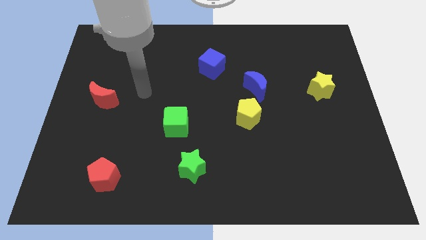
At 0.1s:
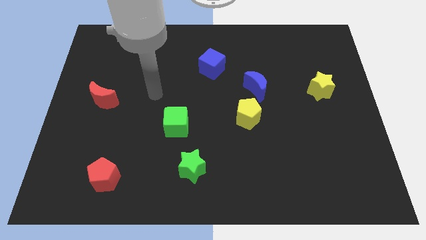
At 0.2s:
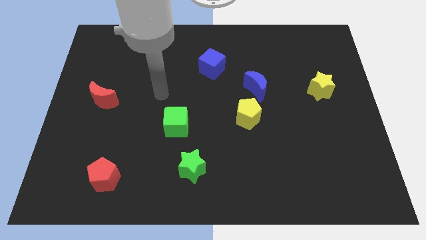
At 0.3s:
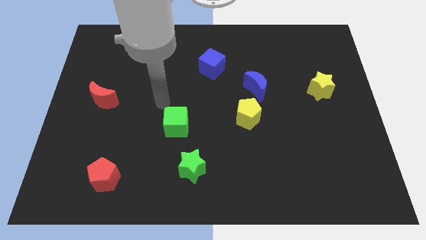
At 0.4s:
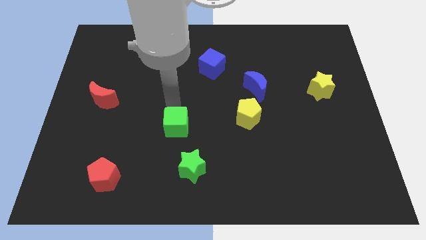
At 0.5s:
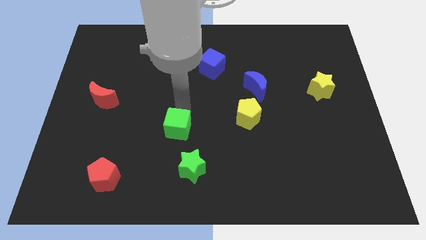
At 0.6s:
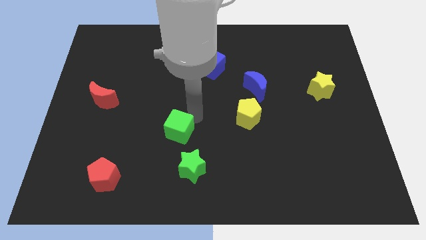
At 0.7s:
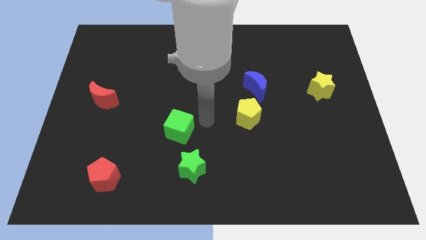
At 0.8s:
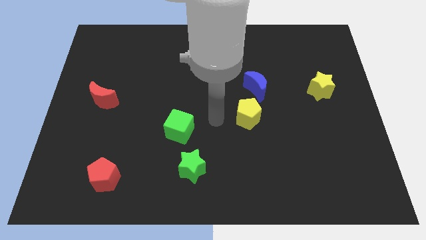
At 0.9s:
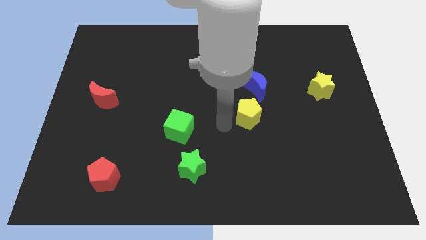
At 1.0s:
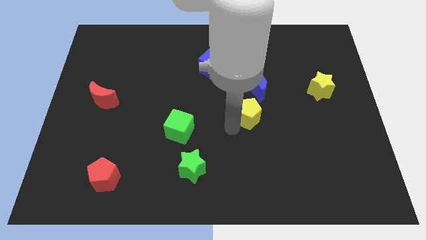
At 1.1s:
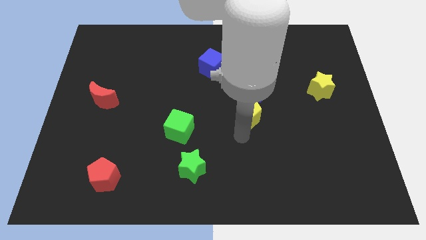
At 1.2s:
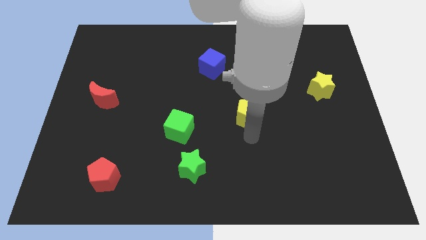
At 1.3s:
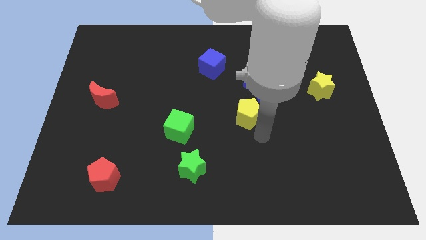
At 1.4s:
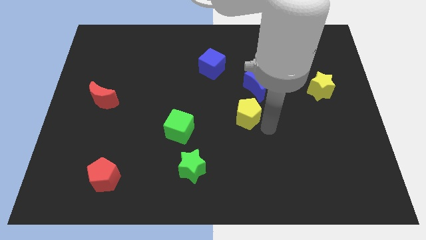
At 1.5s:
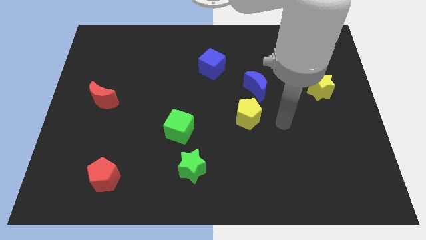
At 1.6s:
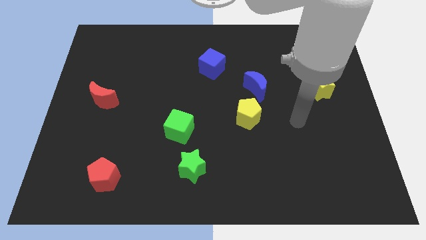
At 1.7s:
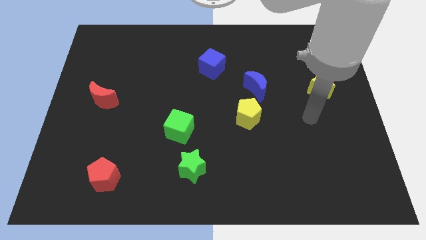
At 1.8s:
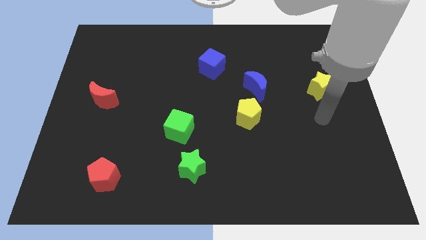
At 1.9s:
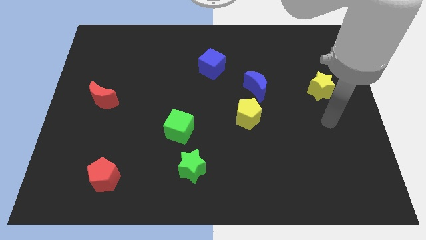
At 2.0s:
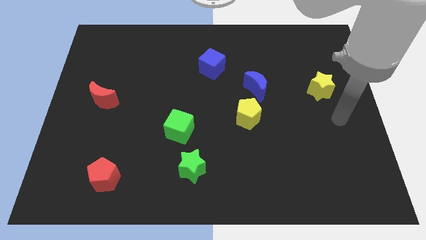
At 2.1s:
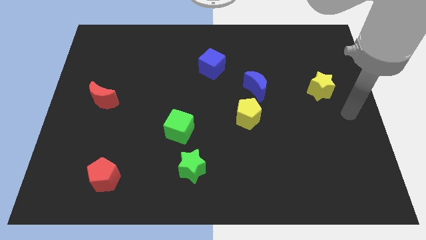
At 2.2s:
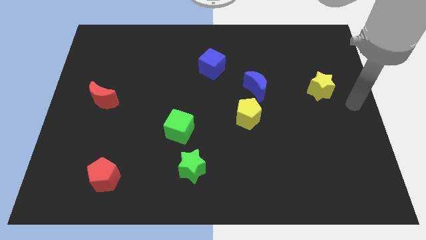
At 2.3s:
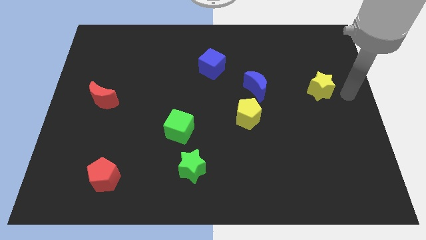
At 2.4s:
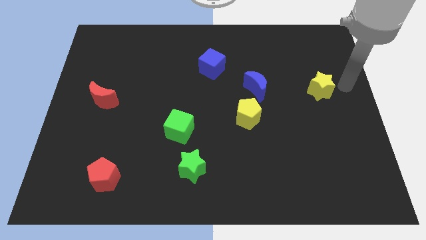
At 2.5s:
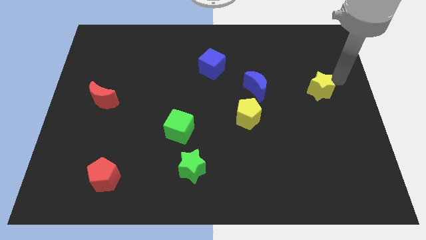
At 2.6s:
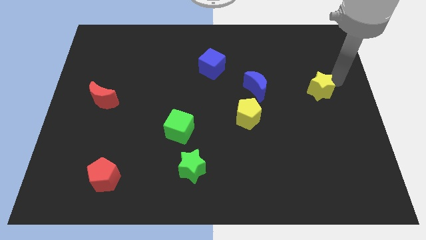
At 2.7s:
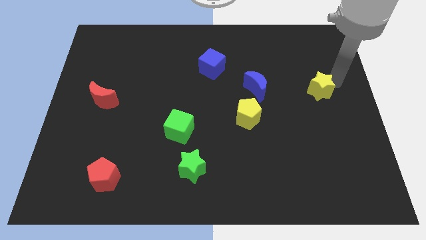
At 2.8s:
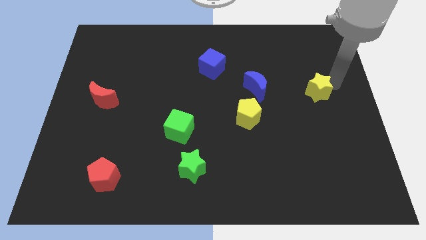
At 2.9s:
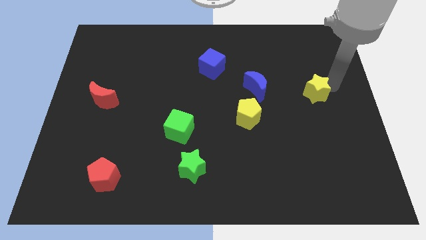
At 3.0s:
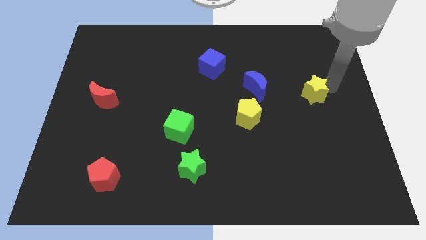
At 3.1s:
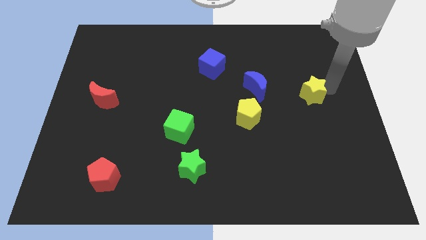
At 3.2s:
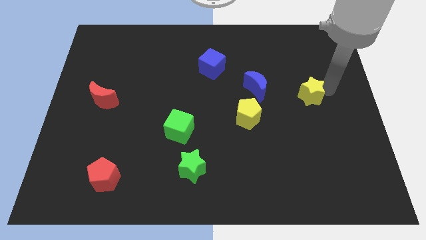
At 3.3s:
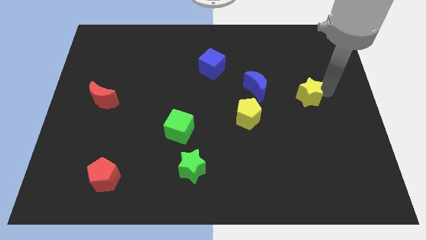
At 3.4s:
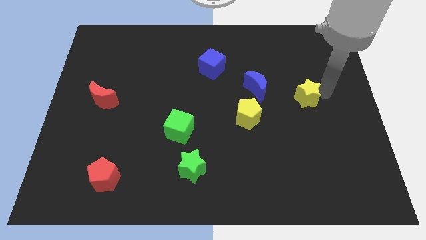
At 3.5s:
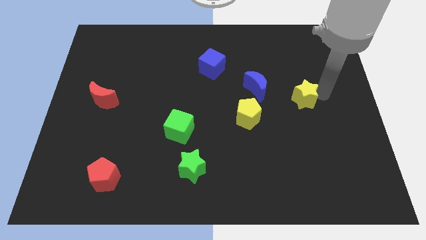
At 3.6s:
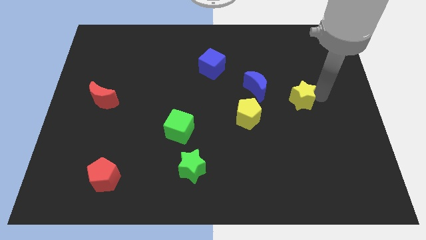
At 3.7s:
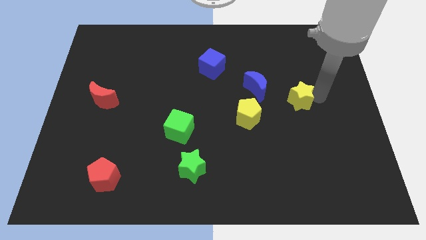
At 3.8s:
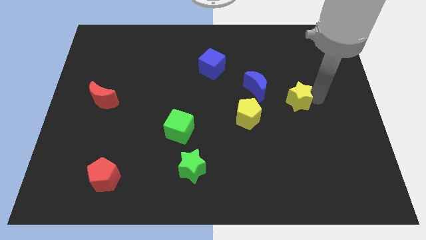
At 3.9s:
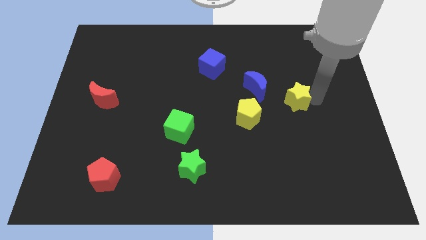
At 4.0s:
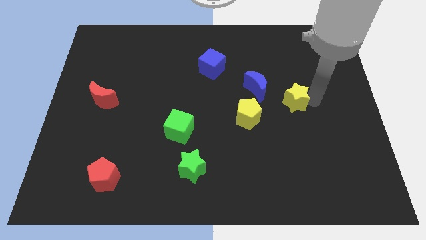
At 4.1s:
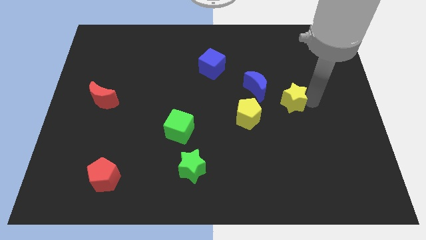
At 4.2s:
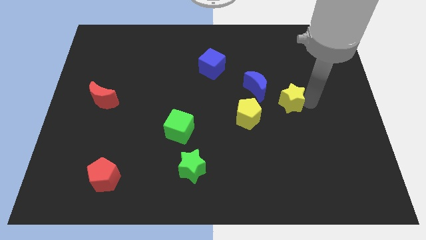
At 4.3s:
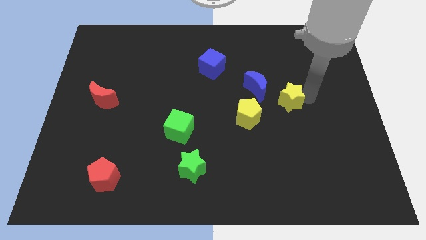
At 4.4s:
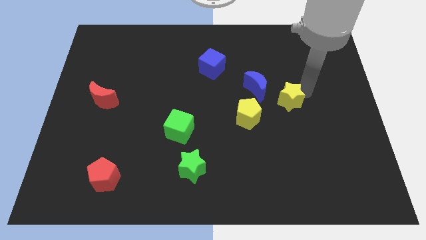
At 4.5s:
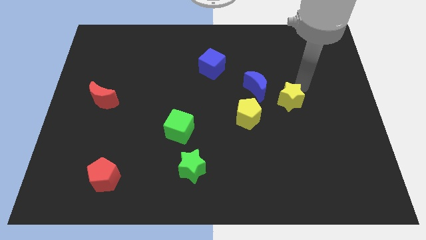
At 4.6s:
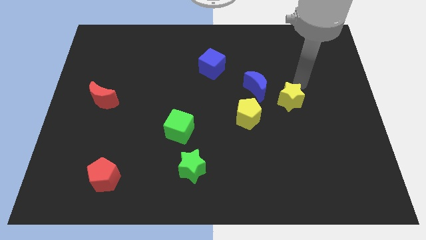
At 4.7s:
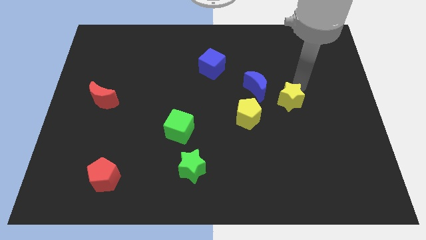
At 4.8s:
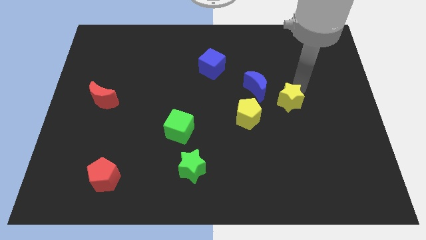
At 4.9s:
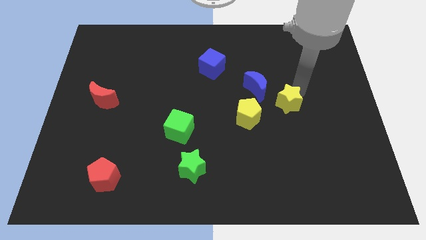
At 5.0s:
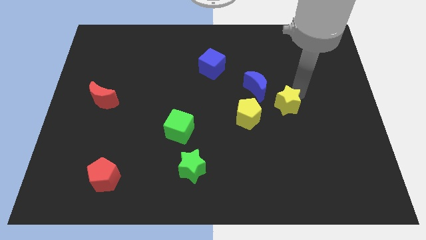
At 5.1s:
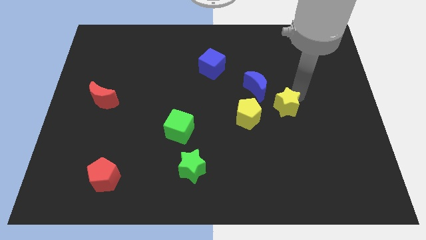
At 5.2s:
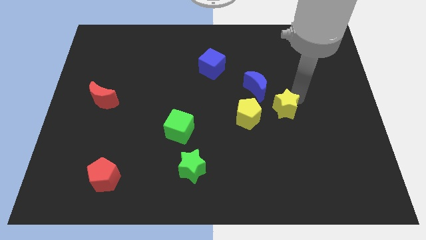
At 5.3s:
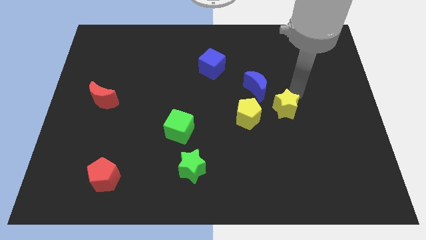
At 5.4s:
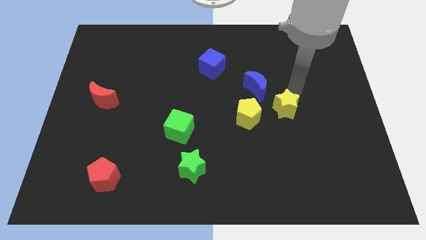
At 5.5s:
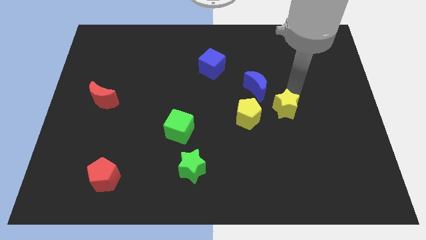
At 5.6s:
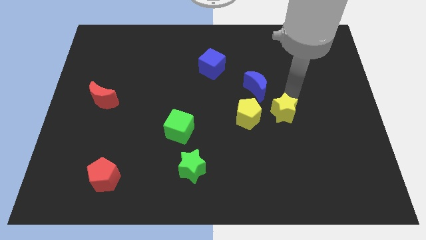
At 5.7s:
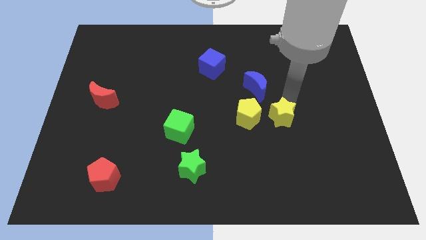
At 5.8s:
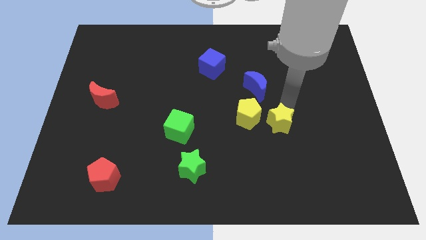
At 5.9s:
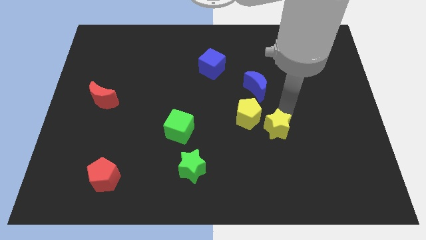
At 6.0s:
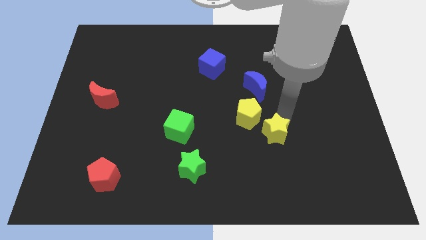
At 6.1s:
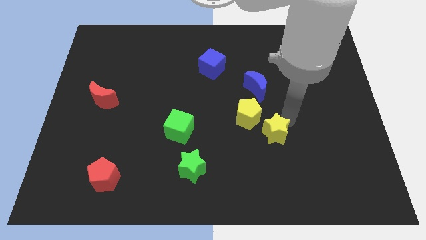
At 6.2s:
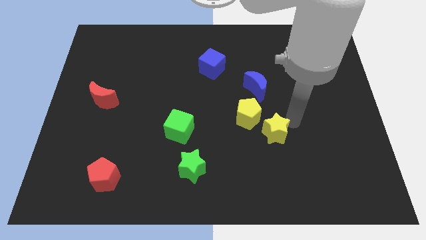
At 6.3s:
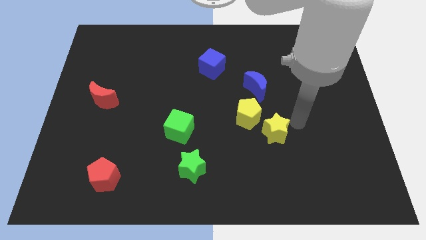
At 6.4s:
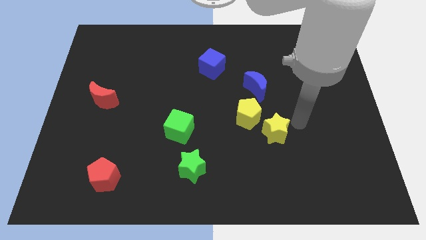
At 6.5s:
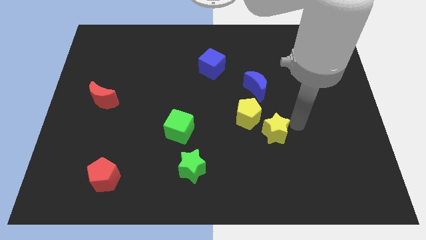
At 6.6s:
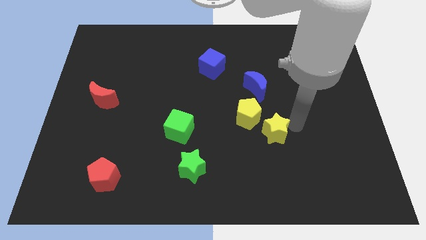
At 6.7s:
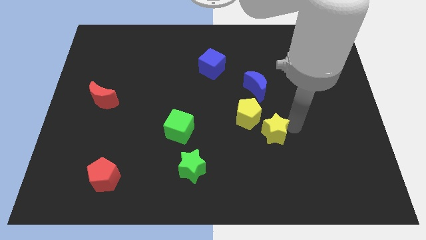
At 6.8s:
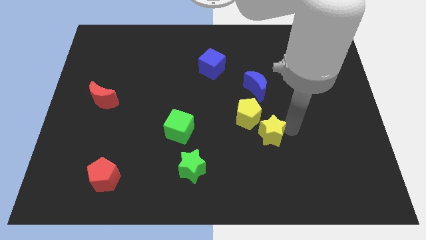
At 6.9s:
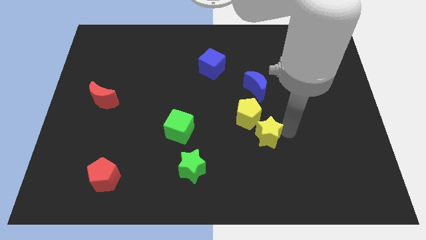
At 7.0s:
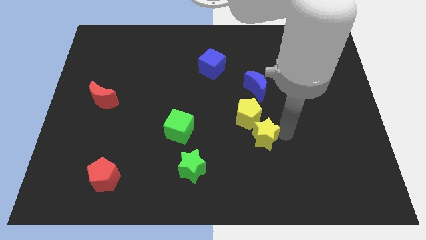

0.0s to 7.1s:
slide the yellow star down and to the left diagonally

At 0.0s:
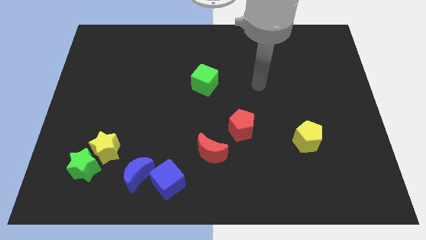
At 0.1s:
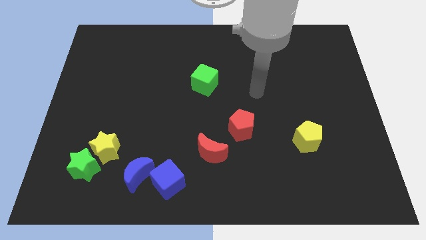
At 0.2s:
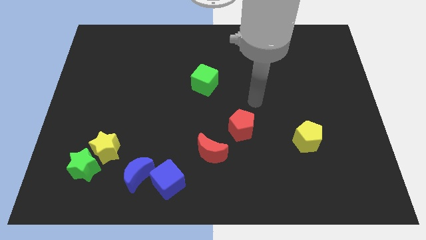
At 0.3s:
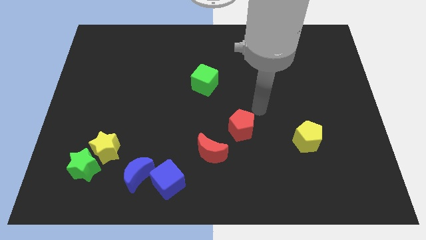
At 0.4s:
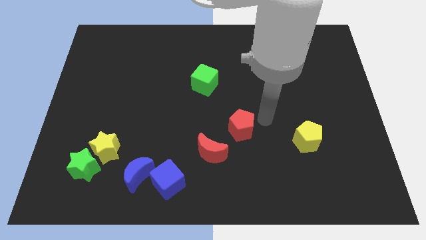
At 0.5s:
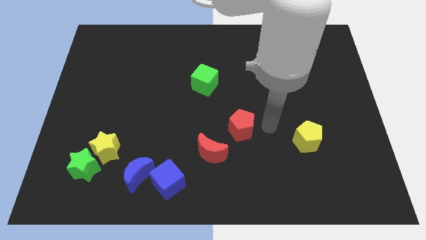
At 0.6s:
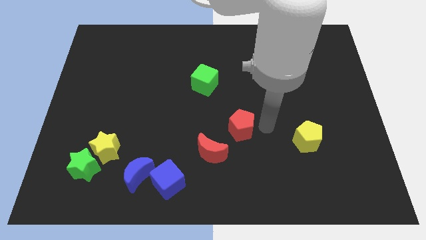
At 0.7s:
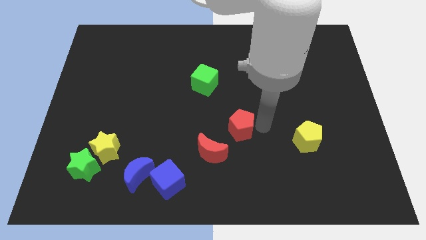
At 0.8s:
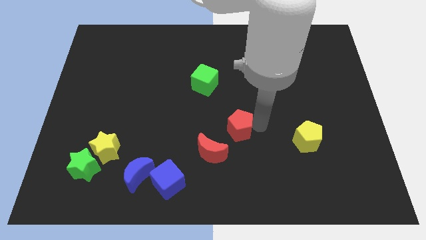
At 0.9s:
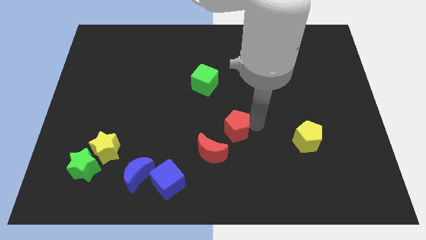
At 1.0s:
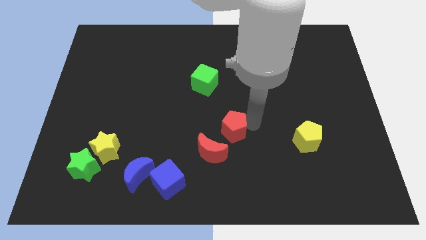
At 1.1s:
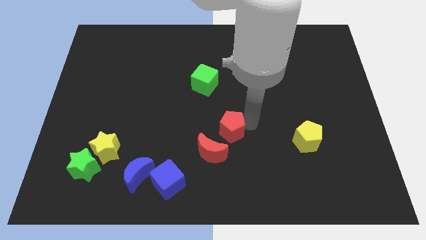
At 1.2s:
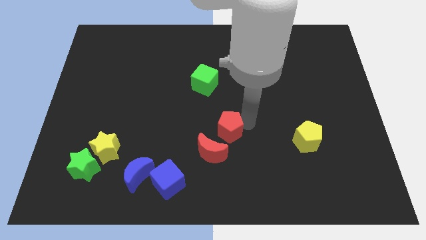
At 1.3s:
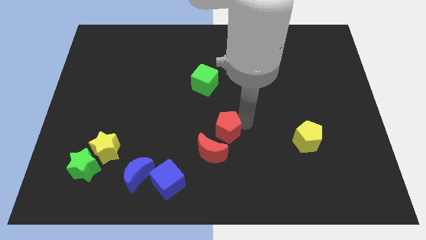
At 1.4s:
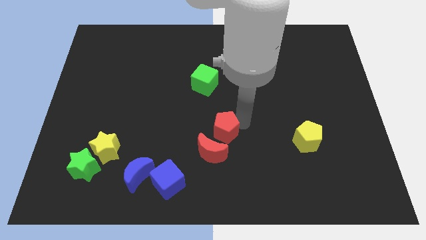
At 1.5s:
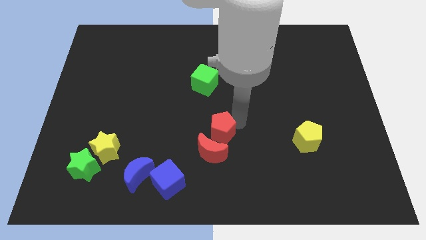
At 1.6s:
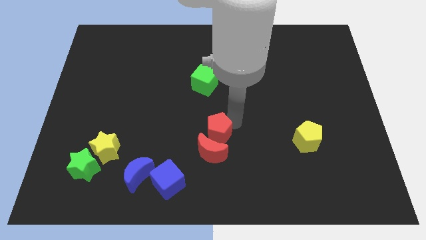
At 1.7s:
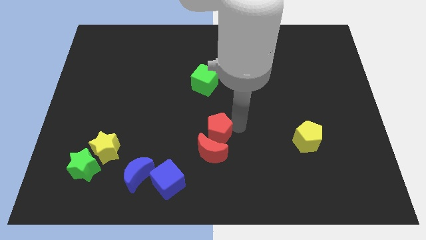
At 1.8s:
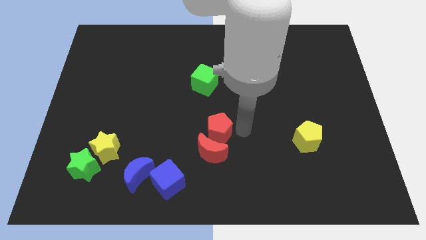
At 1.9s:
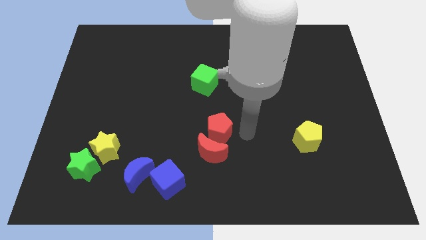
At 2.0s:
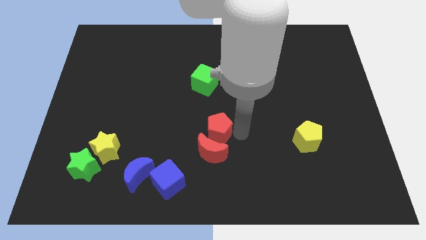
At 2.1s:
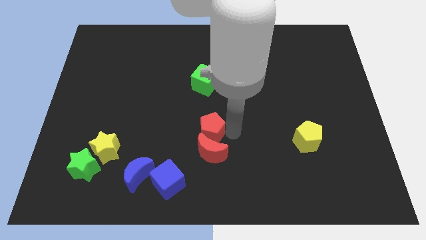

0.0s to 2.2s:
move the red pentagon a bit to the left
